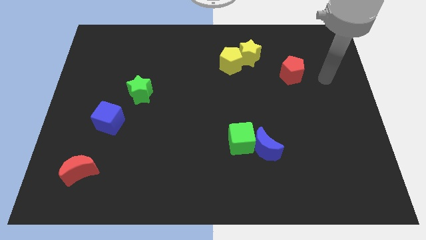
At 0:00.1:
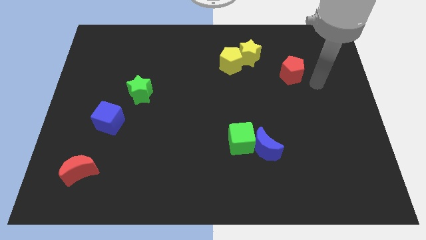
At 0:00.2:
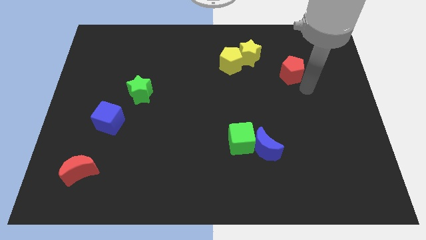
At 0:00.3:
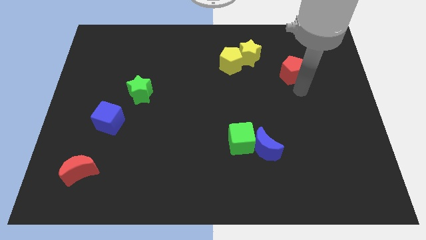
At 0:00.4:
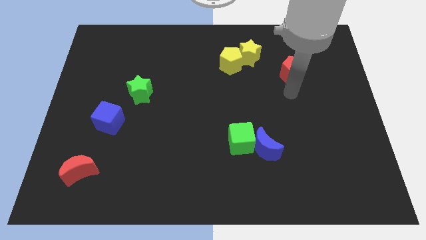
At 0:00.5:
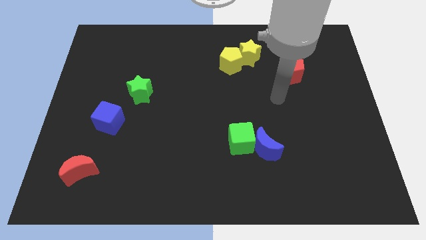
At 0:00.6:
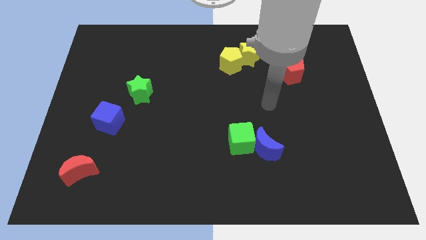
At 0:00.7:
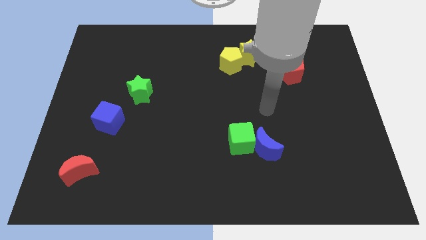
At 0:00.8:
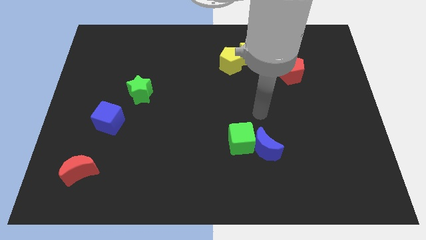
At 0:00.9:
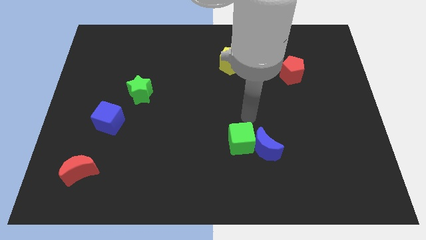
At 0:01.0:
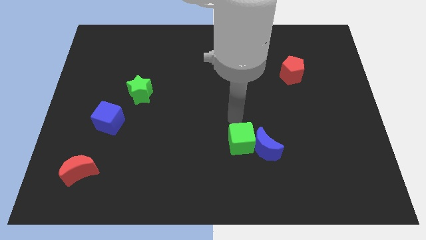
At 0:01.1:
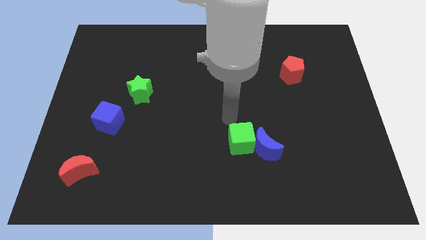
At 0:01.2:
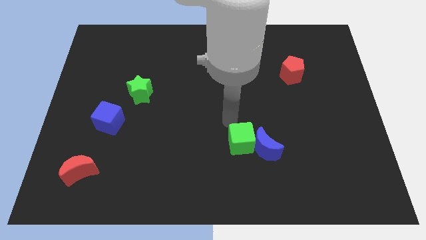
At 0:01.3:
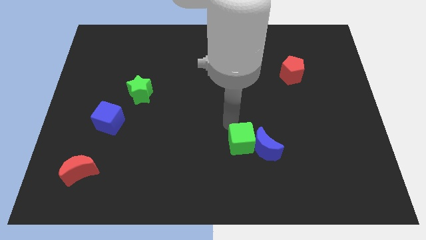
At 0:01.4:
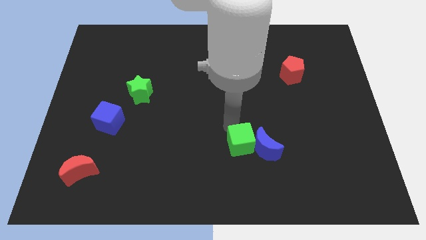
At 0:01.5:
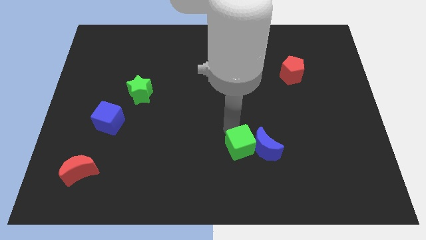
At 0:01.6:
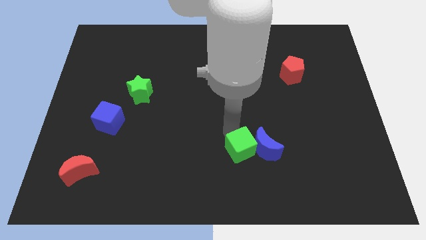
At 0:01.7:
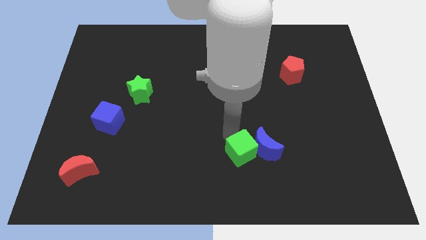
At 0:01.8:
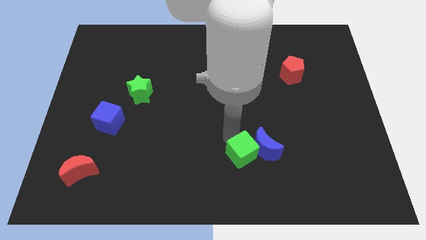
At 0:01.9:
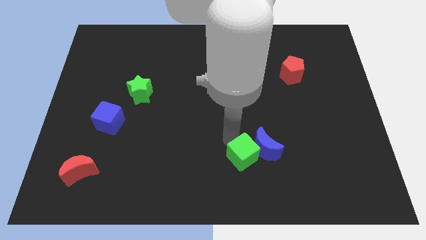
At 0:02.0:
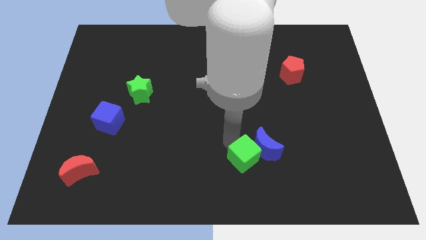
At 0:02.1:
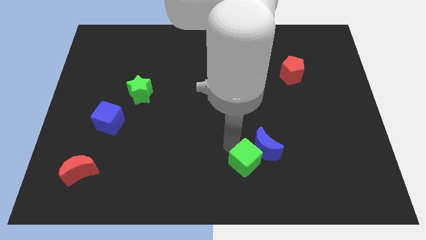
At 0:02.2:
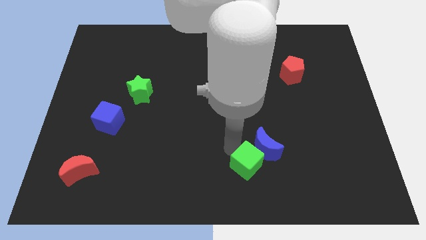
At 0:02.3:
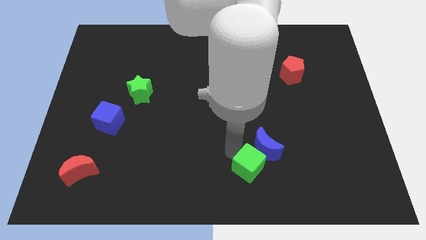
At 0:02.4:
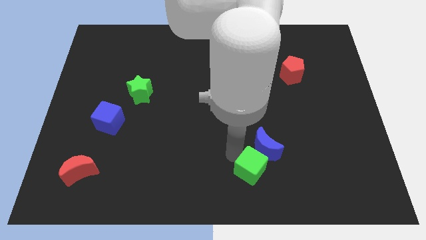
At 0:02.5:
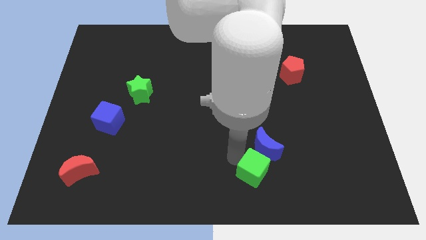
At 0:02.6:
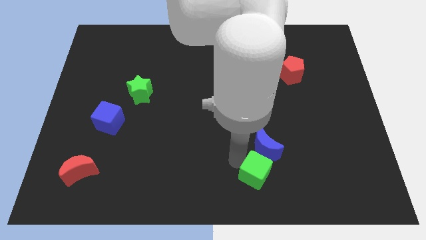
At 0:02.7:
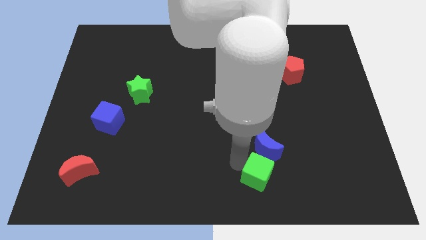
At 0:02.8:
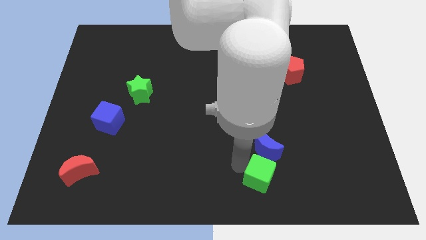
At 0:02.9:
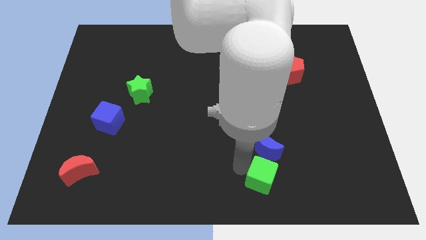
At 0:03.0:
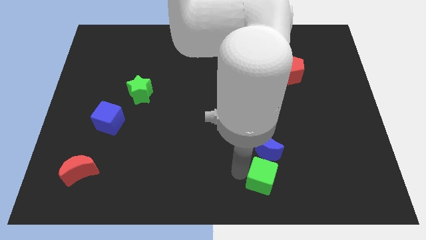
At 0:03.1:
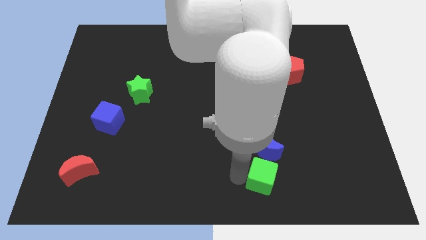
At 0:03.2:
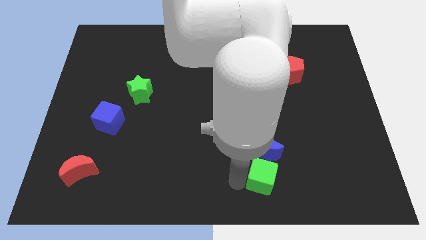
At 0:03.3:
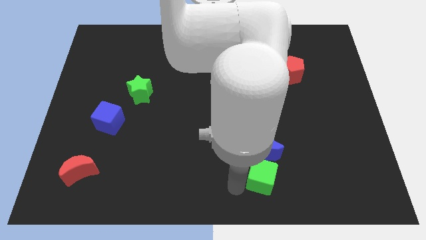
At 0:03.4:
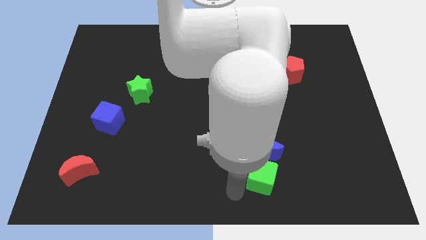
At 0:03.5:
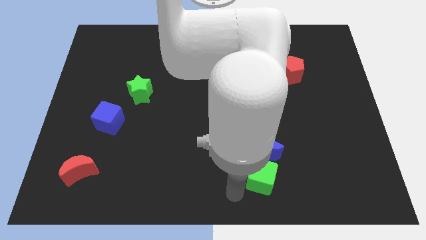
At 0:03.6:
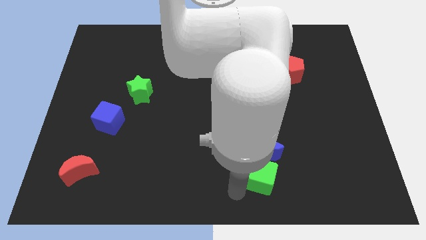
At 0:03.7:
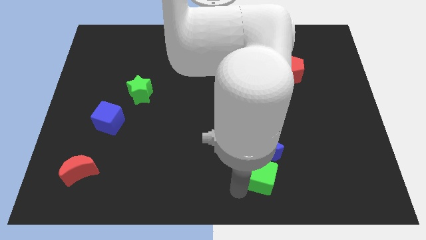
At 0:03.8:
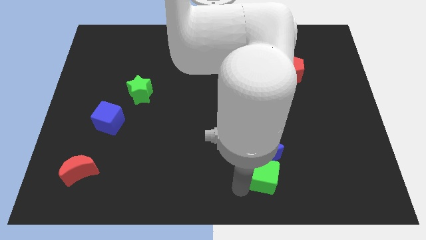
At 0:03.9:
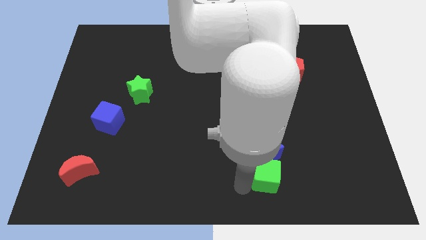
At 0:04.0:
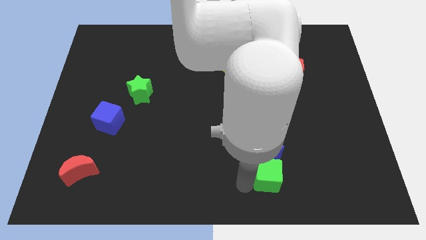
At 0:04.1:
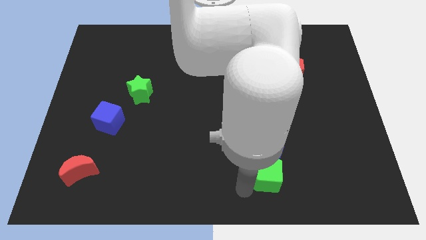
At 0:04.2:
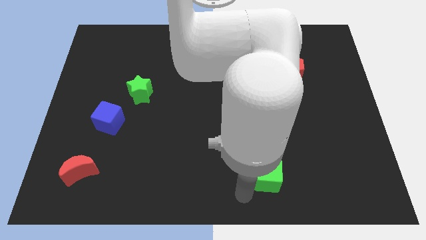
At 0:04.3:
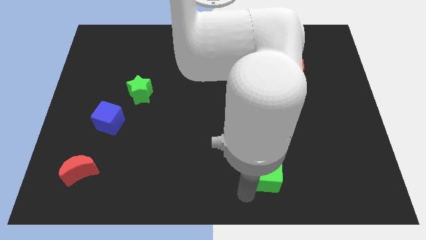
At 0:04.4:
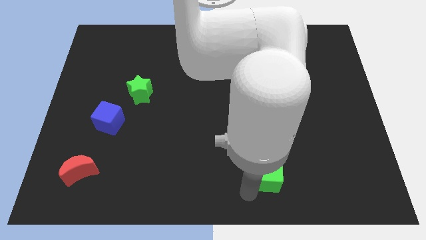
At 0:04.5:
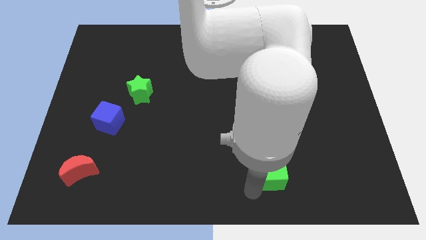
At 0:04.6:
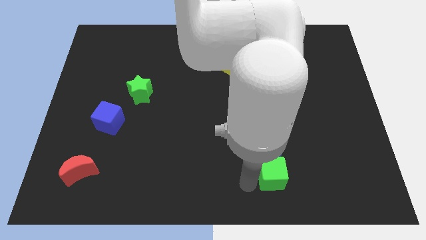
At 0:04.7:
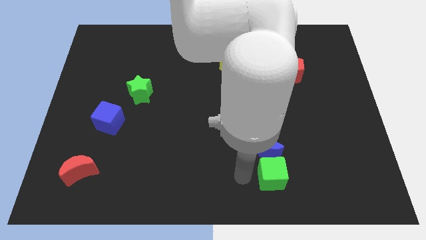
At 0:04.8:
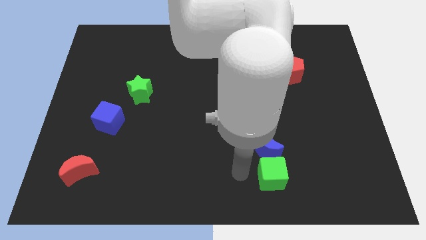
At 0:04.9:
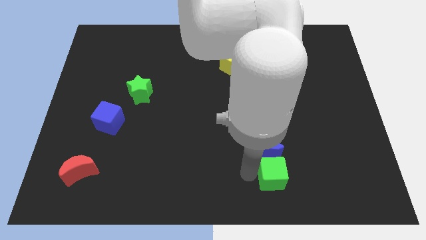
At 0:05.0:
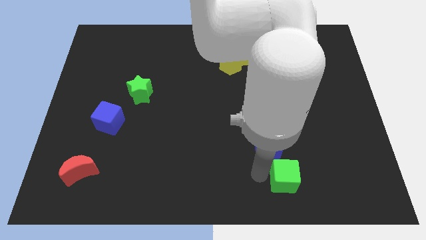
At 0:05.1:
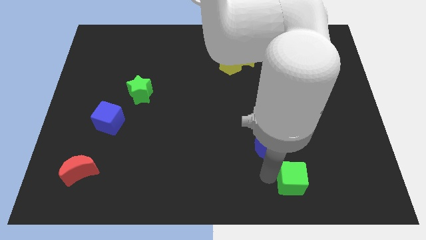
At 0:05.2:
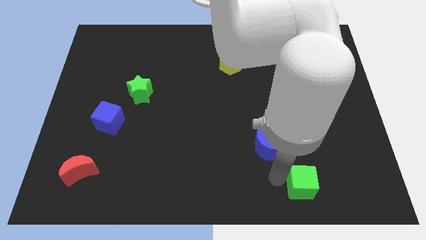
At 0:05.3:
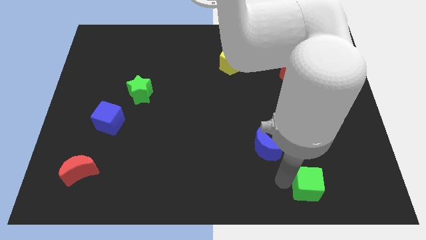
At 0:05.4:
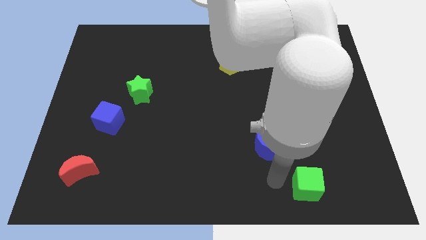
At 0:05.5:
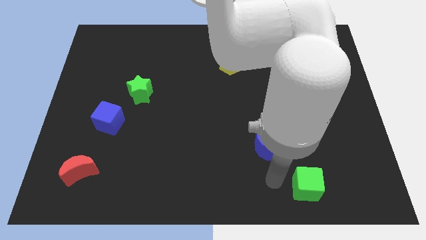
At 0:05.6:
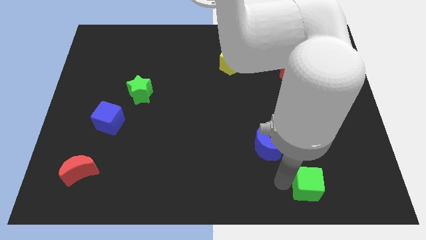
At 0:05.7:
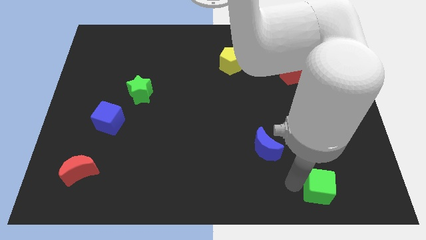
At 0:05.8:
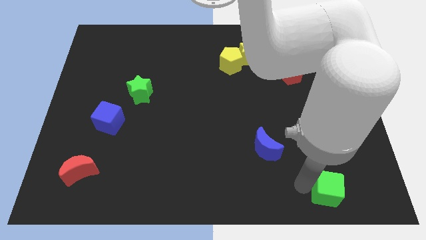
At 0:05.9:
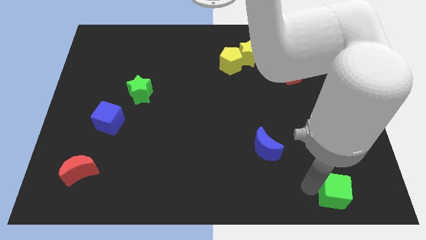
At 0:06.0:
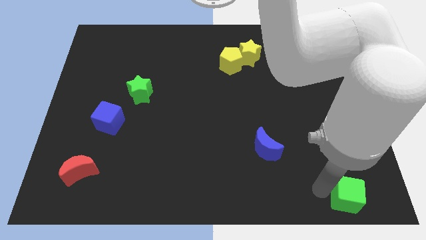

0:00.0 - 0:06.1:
put the green cube to the bottom right of the board
